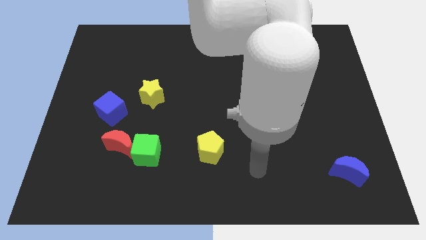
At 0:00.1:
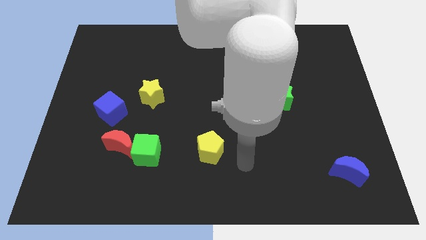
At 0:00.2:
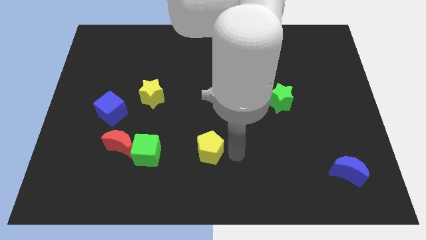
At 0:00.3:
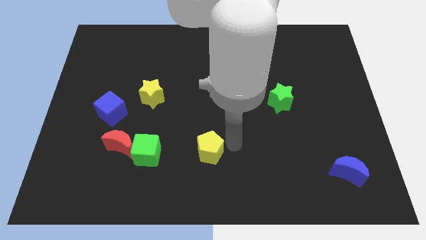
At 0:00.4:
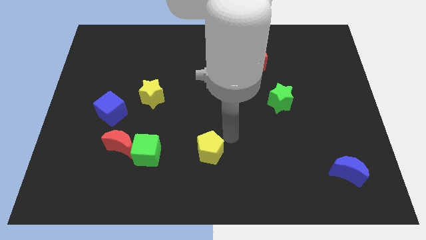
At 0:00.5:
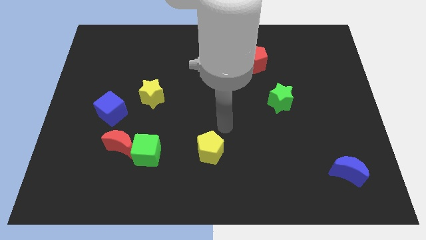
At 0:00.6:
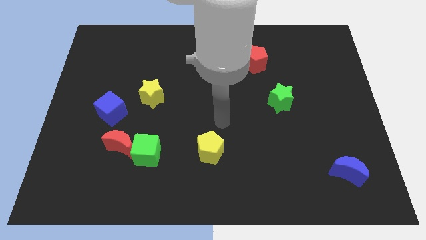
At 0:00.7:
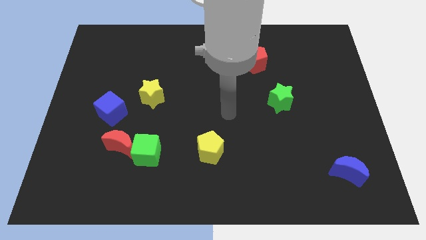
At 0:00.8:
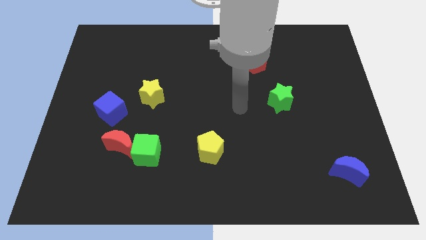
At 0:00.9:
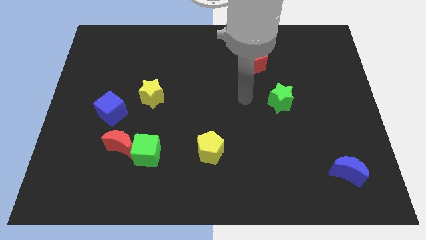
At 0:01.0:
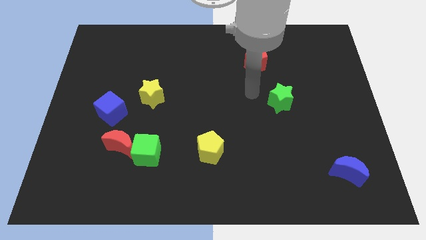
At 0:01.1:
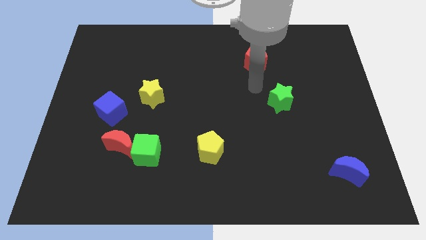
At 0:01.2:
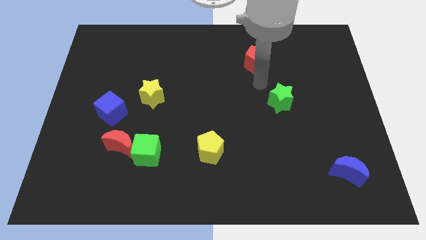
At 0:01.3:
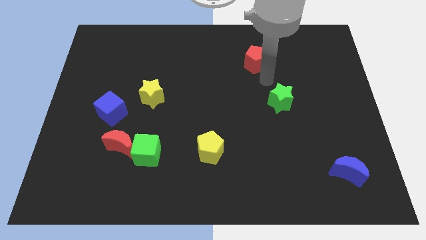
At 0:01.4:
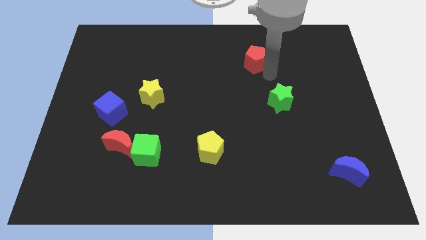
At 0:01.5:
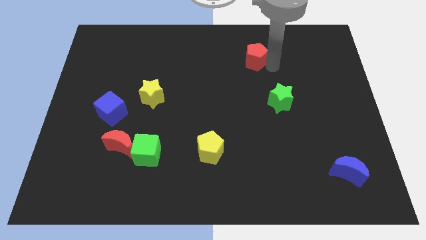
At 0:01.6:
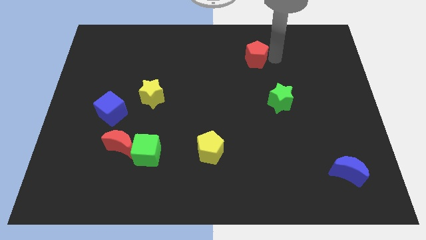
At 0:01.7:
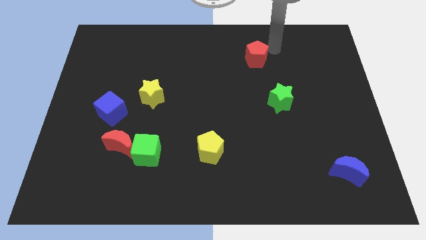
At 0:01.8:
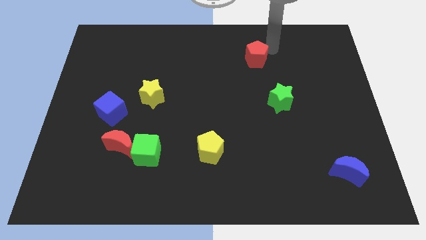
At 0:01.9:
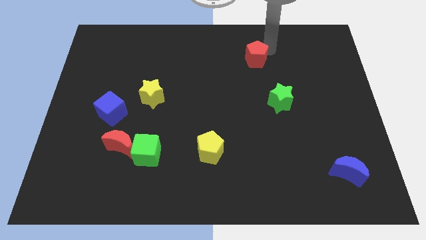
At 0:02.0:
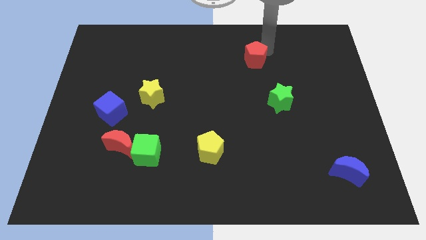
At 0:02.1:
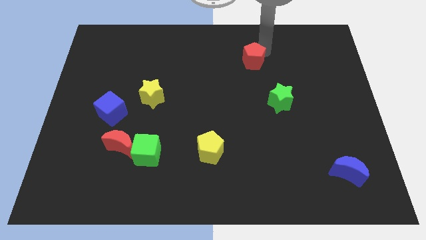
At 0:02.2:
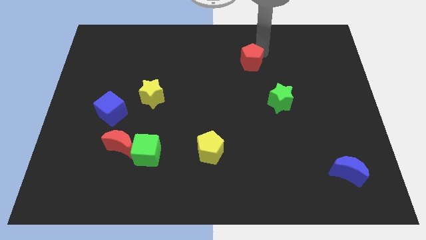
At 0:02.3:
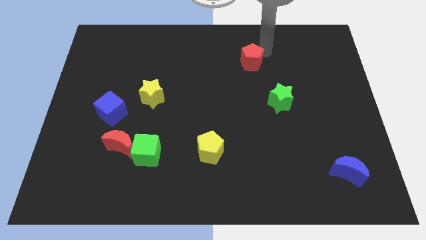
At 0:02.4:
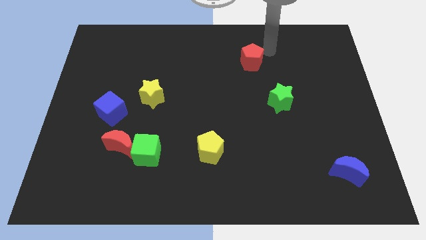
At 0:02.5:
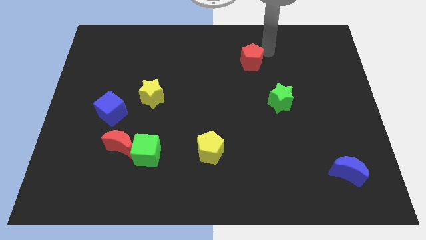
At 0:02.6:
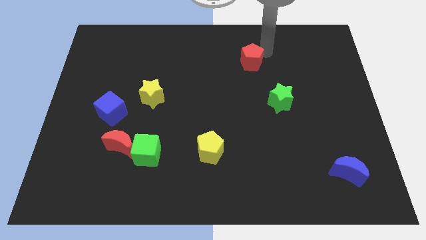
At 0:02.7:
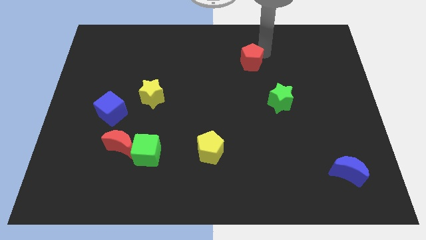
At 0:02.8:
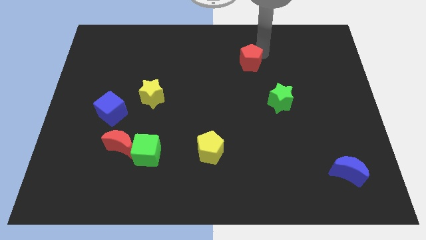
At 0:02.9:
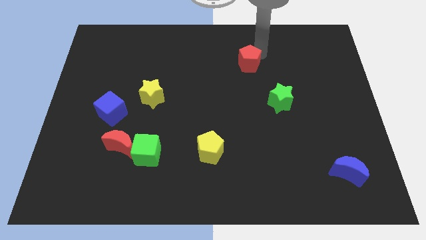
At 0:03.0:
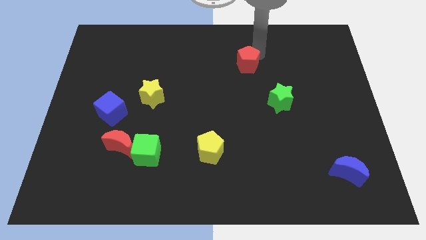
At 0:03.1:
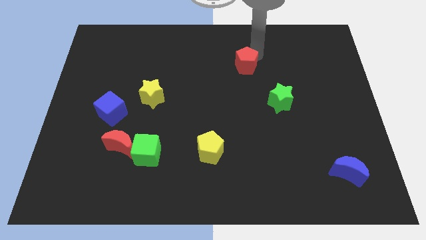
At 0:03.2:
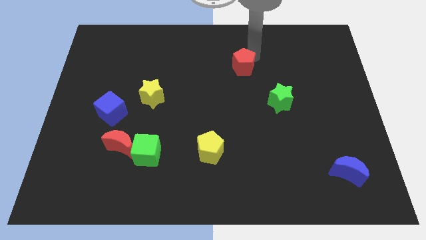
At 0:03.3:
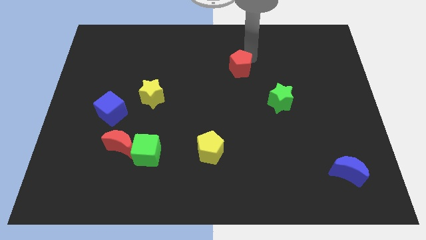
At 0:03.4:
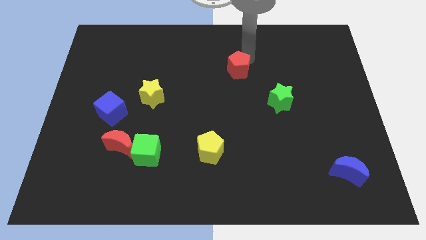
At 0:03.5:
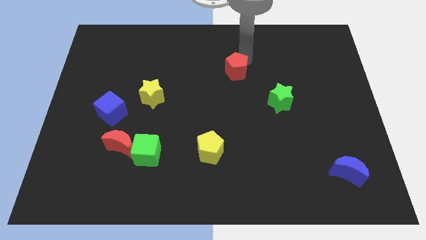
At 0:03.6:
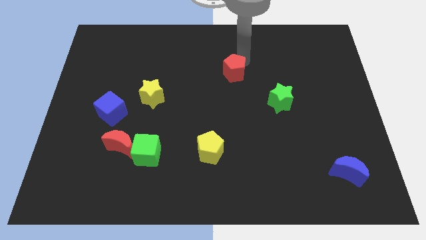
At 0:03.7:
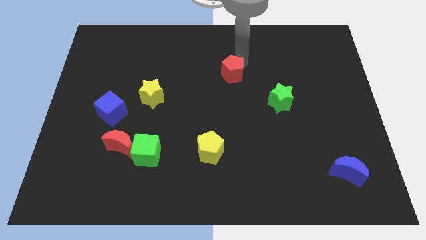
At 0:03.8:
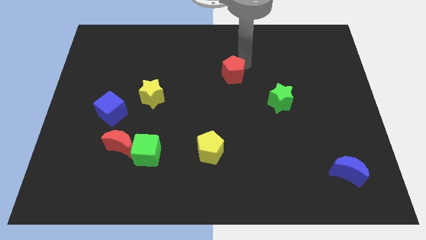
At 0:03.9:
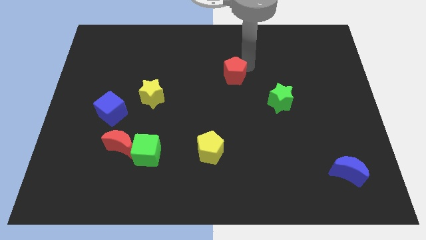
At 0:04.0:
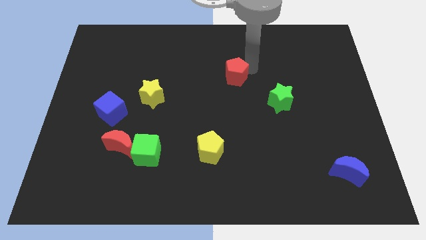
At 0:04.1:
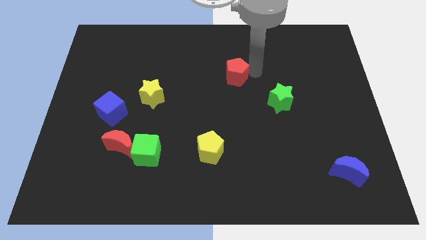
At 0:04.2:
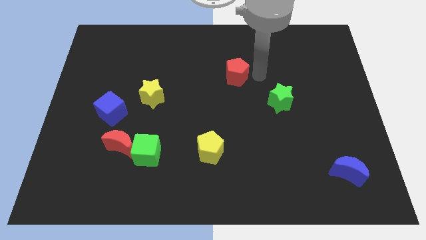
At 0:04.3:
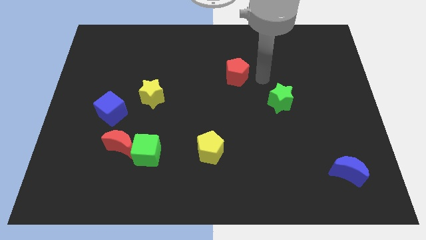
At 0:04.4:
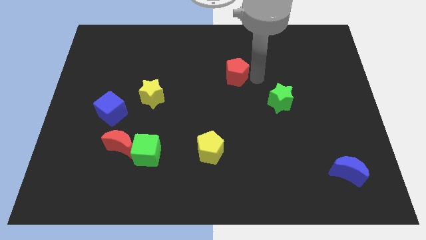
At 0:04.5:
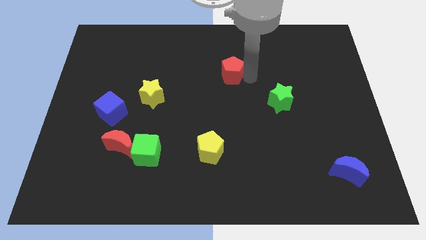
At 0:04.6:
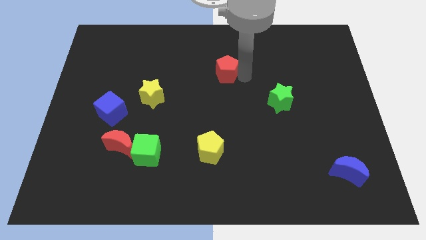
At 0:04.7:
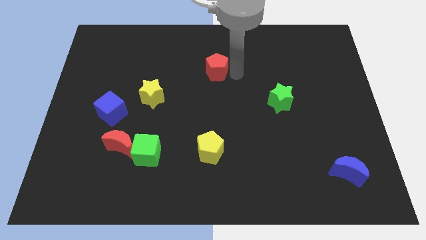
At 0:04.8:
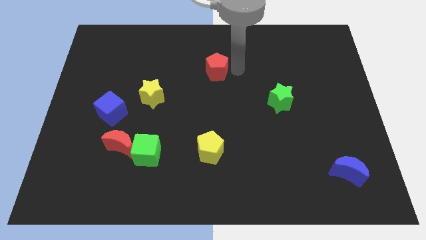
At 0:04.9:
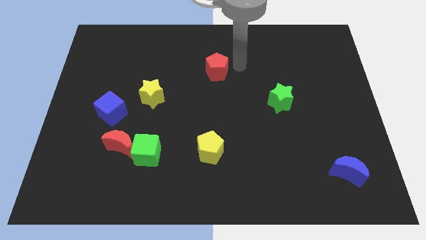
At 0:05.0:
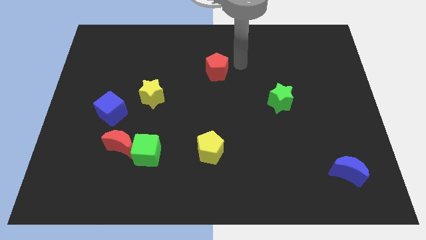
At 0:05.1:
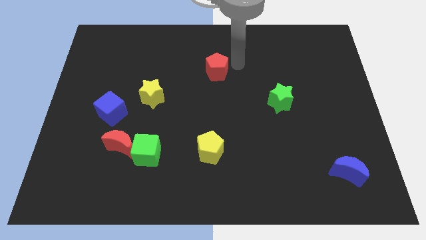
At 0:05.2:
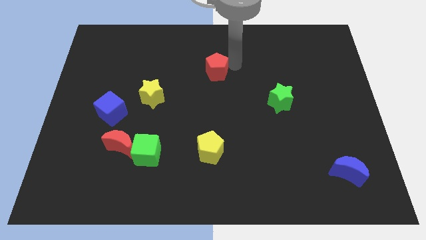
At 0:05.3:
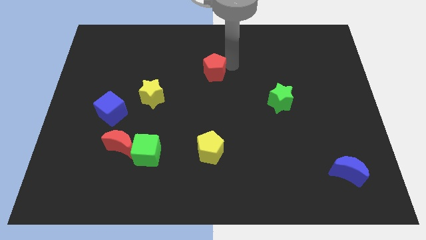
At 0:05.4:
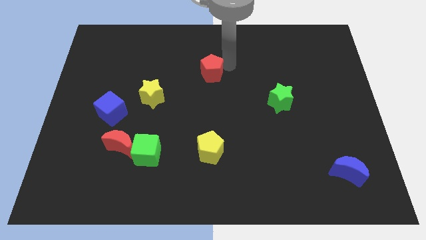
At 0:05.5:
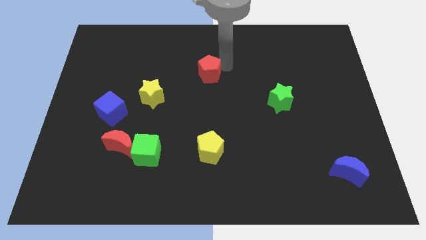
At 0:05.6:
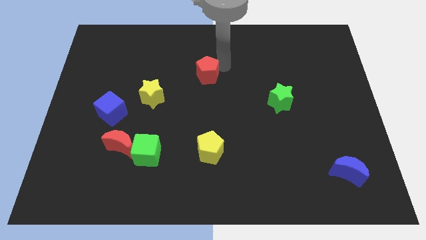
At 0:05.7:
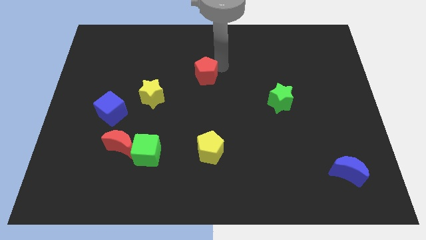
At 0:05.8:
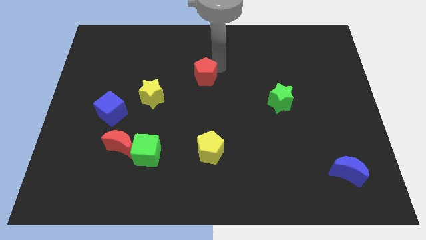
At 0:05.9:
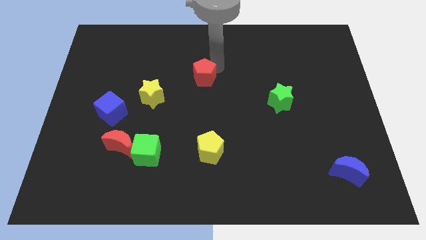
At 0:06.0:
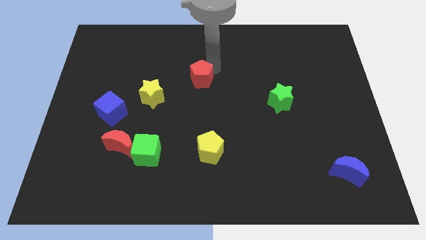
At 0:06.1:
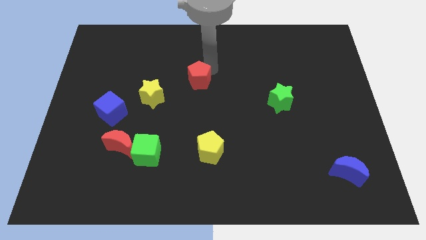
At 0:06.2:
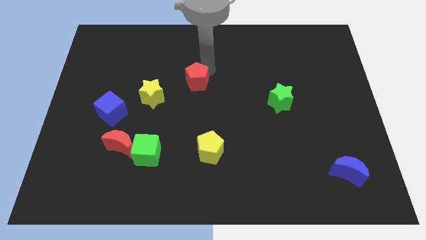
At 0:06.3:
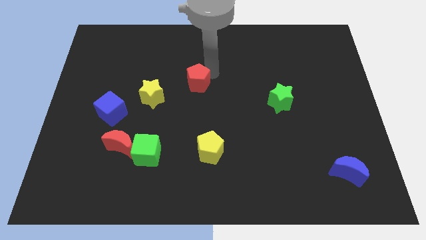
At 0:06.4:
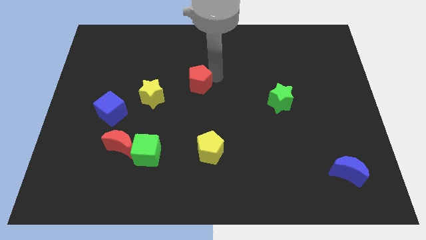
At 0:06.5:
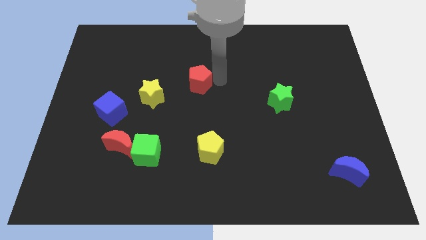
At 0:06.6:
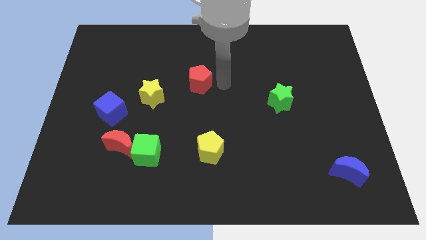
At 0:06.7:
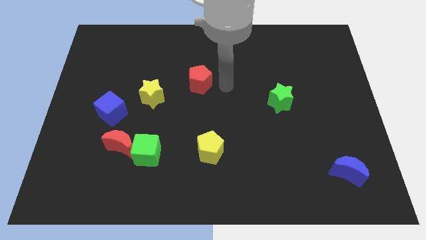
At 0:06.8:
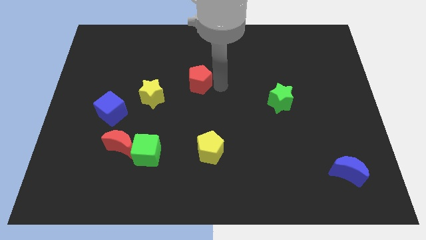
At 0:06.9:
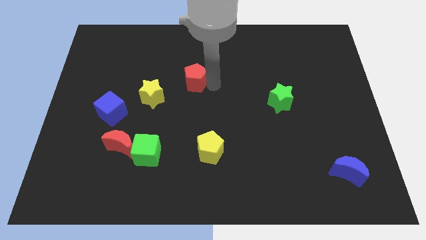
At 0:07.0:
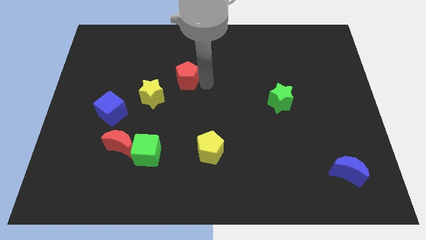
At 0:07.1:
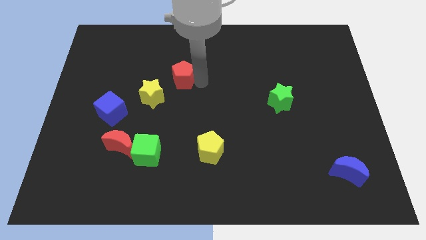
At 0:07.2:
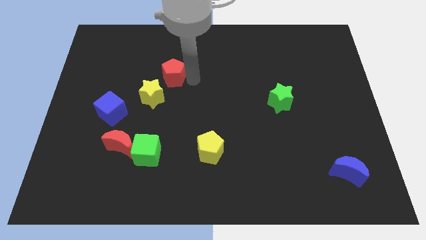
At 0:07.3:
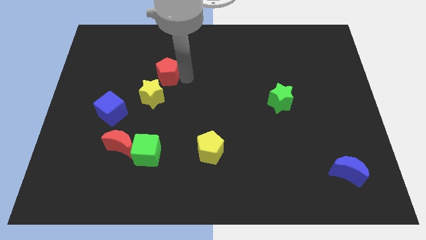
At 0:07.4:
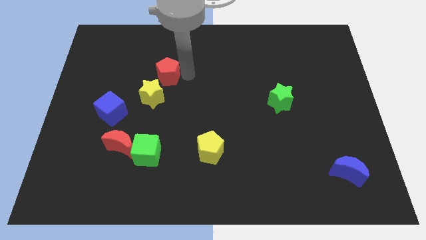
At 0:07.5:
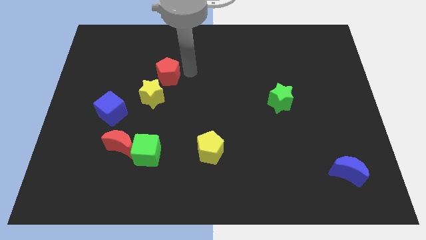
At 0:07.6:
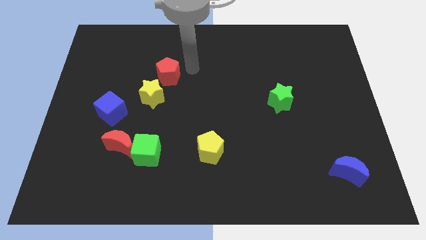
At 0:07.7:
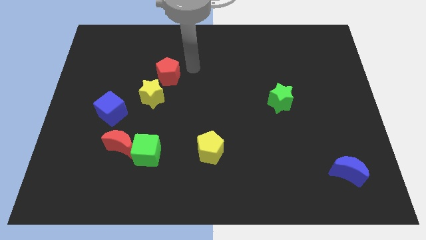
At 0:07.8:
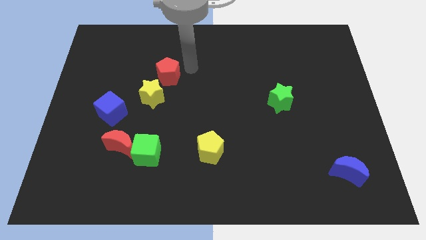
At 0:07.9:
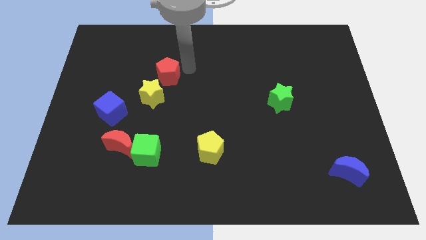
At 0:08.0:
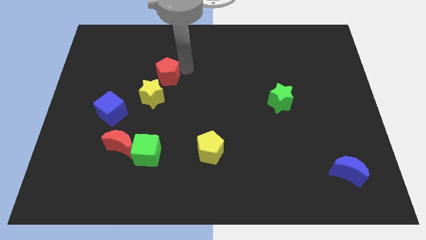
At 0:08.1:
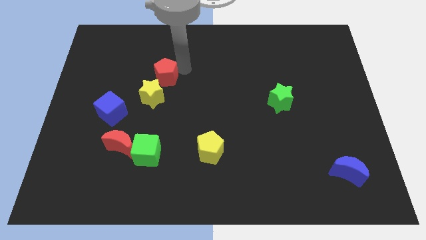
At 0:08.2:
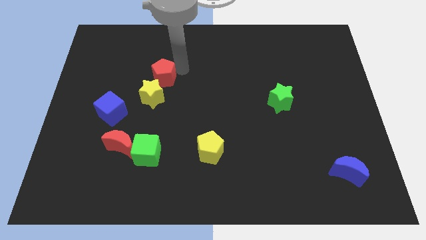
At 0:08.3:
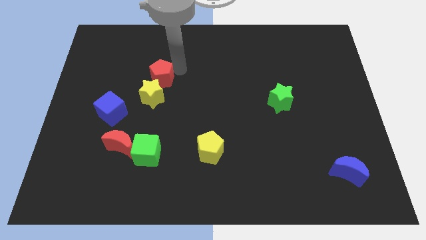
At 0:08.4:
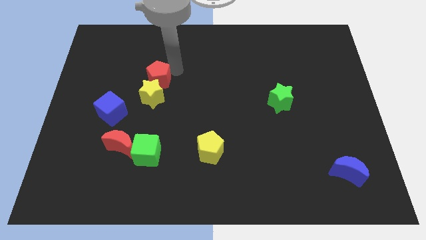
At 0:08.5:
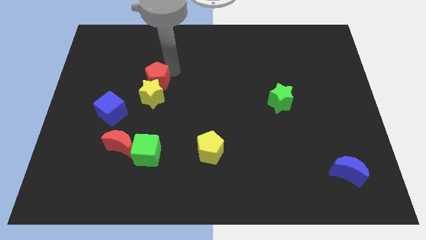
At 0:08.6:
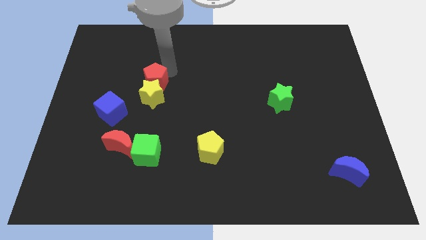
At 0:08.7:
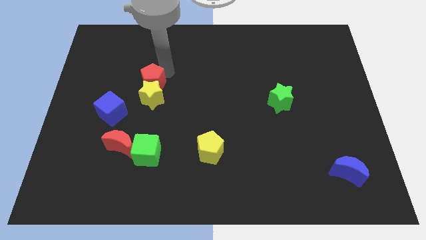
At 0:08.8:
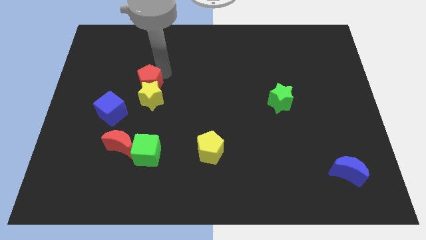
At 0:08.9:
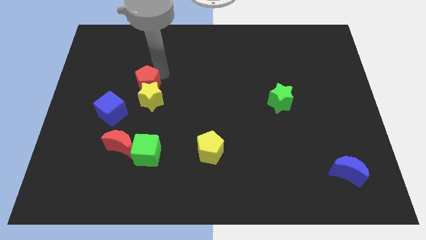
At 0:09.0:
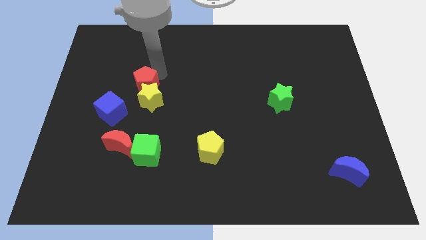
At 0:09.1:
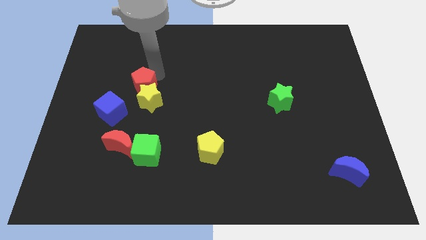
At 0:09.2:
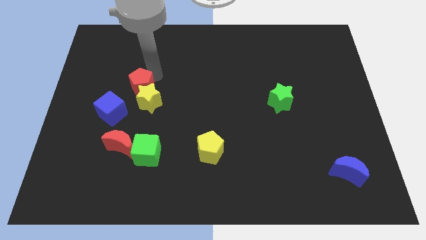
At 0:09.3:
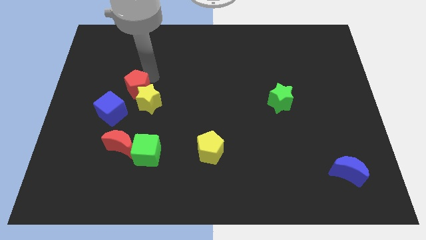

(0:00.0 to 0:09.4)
put the red pentagon to the left of the yellow star
